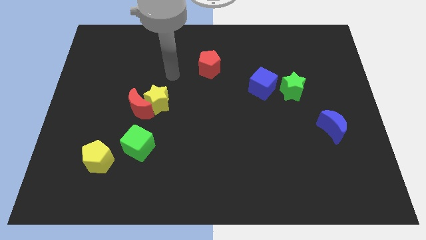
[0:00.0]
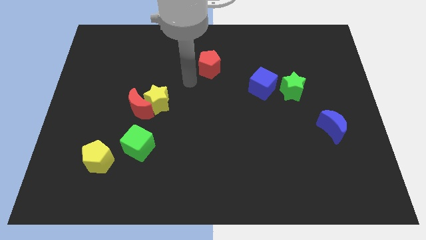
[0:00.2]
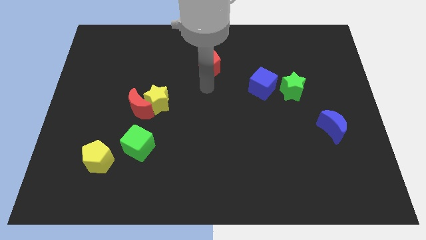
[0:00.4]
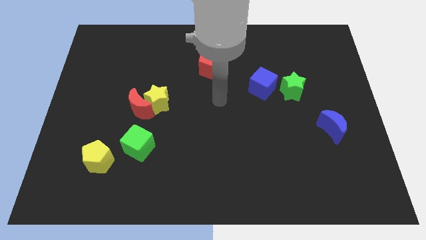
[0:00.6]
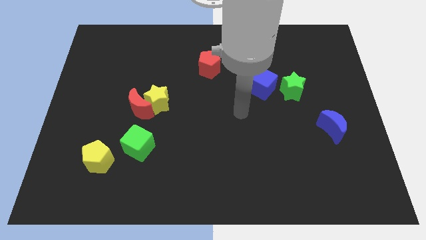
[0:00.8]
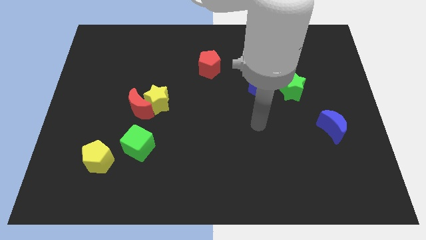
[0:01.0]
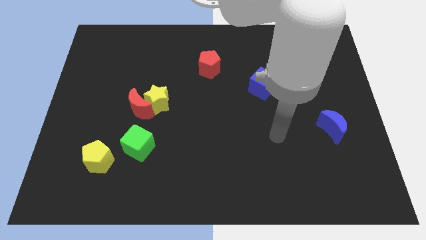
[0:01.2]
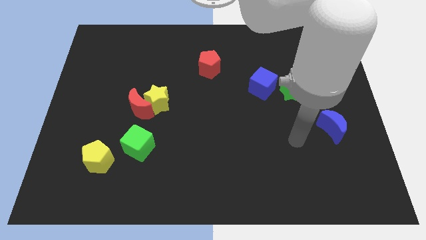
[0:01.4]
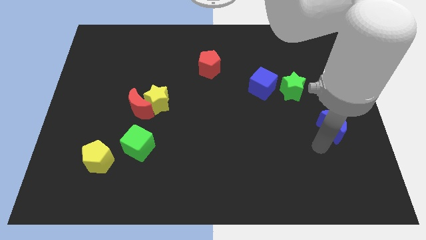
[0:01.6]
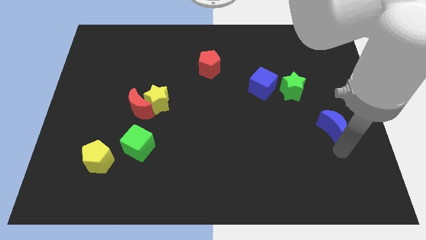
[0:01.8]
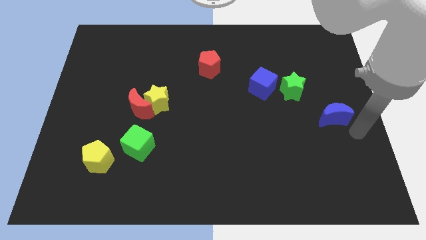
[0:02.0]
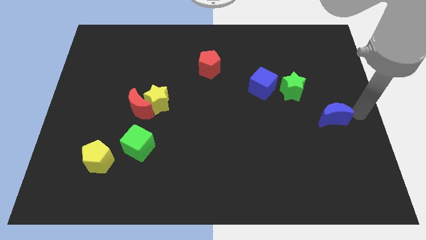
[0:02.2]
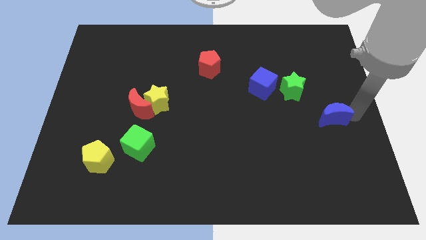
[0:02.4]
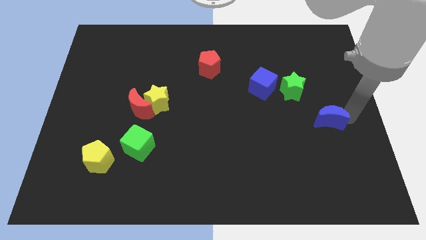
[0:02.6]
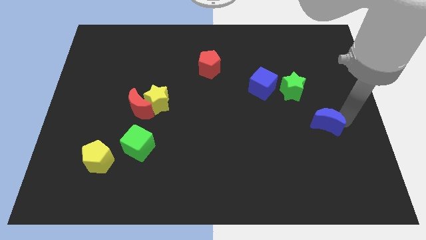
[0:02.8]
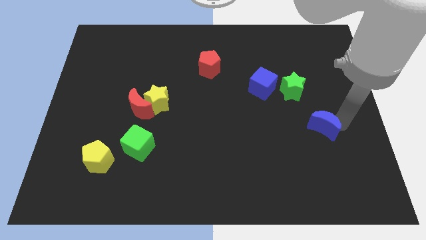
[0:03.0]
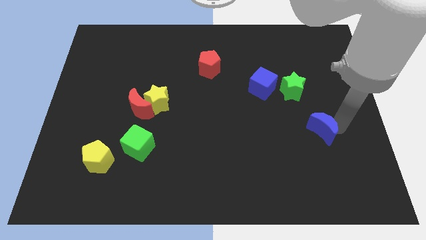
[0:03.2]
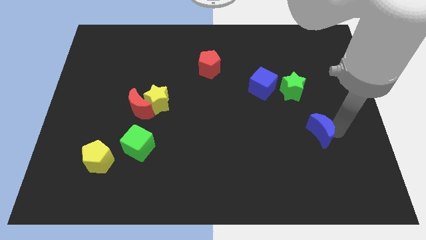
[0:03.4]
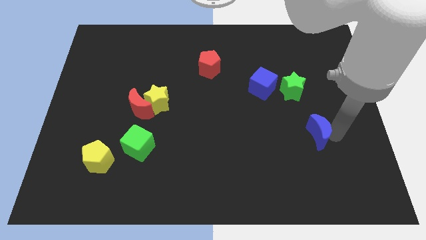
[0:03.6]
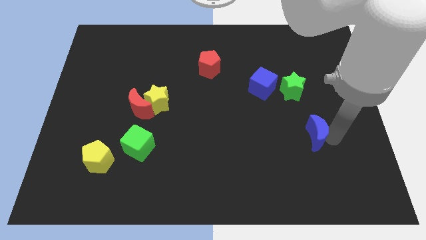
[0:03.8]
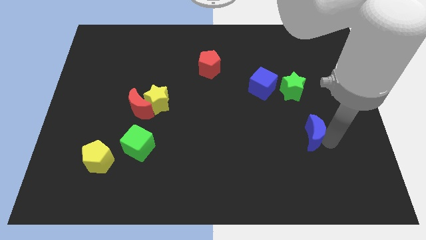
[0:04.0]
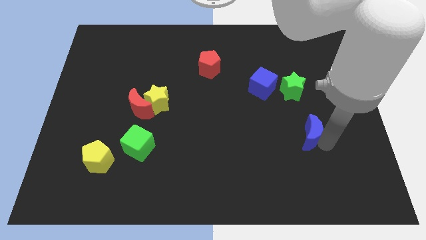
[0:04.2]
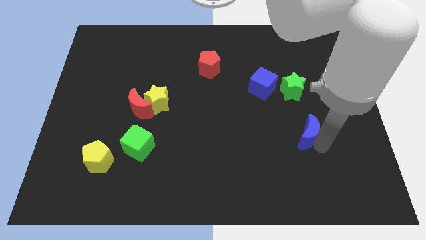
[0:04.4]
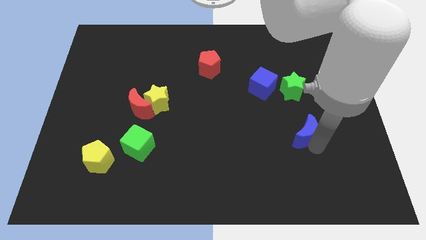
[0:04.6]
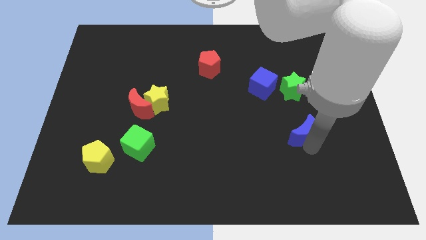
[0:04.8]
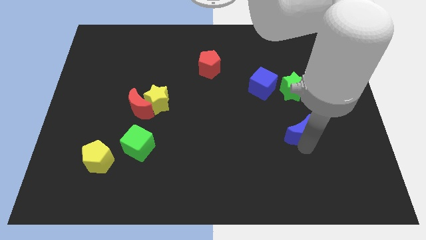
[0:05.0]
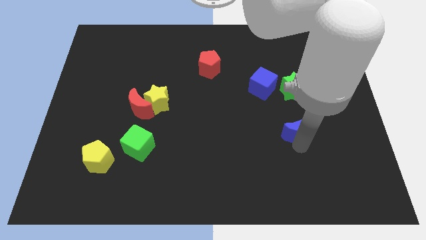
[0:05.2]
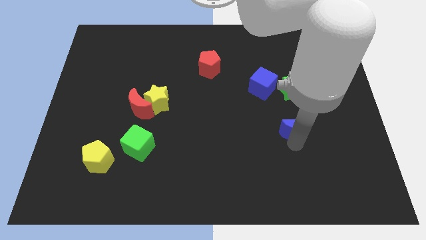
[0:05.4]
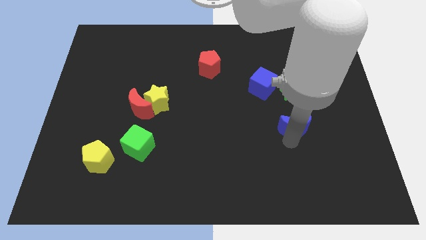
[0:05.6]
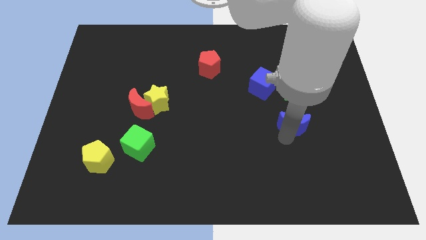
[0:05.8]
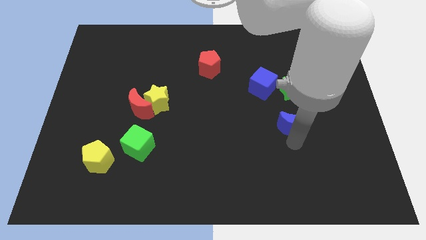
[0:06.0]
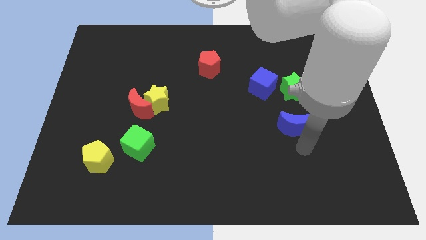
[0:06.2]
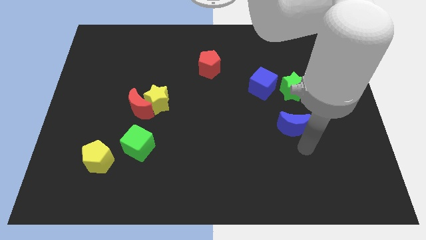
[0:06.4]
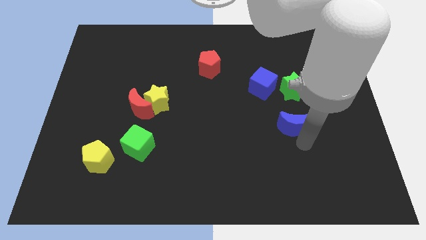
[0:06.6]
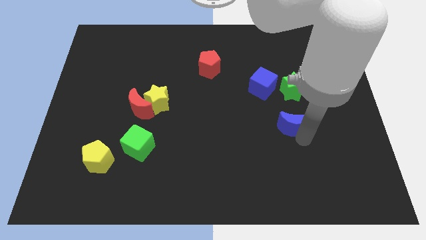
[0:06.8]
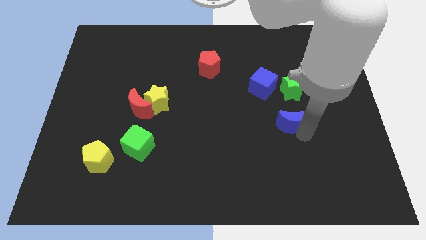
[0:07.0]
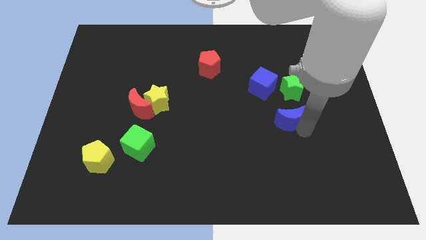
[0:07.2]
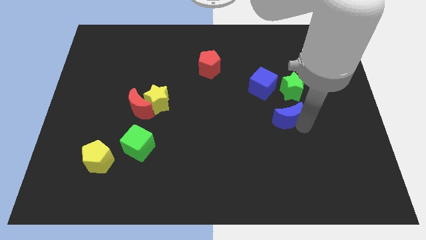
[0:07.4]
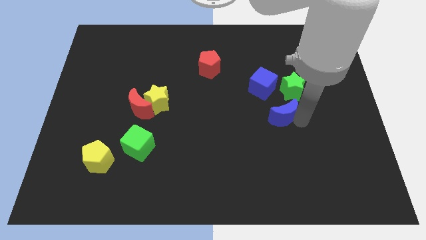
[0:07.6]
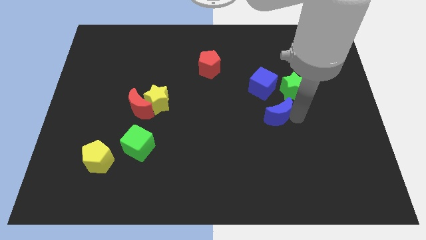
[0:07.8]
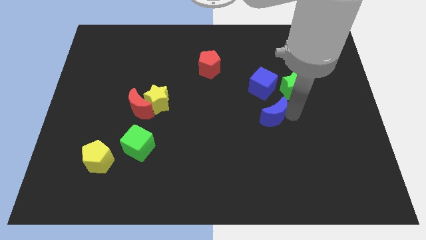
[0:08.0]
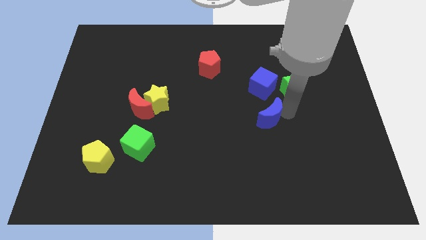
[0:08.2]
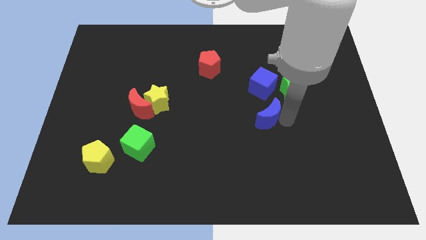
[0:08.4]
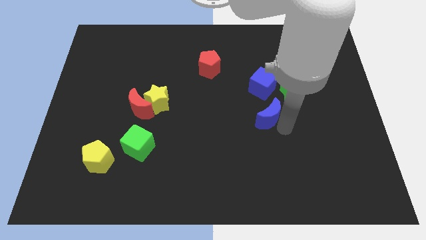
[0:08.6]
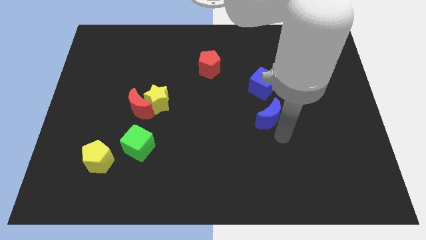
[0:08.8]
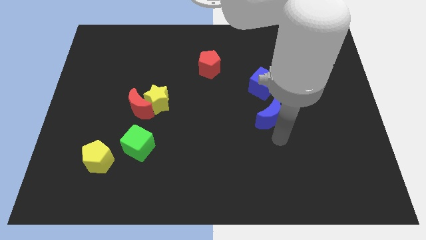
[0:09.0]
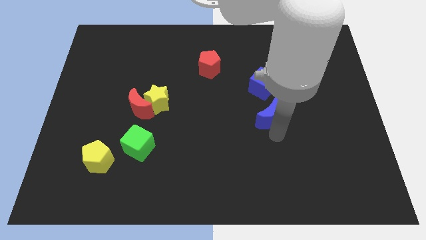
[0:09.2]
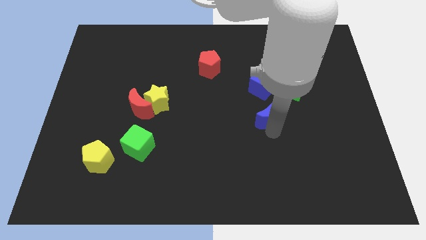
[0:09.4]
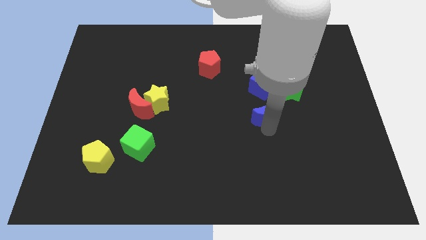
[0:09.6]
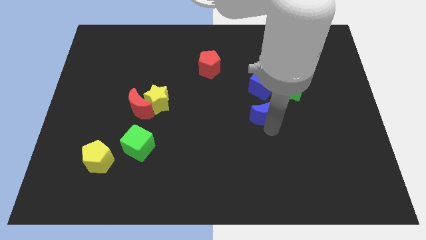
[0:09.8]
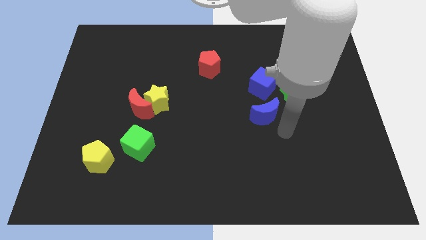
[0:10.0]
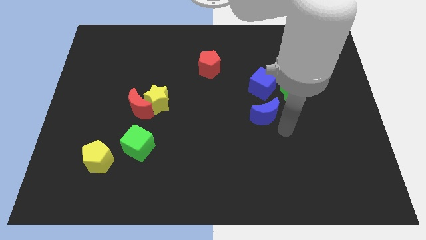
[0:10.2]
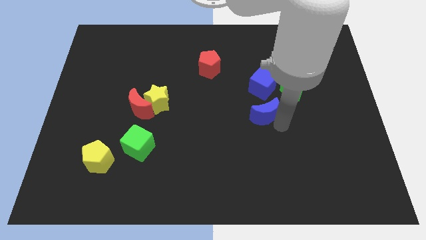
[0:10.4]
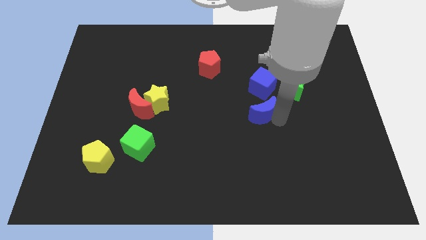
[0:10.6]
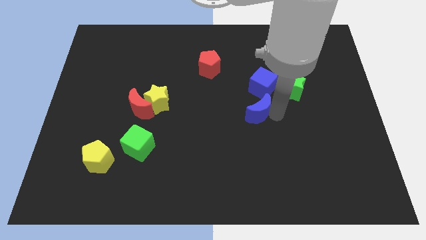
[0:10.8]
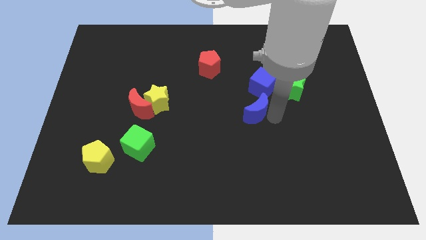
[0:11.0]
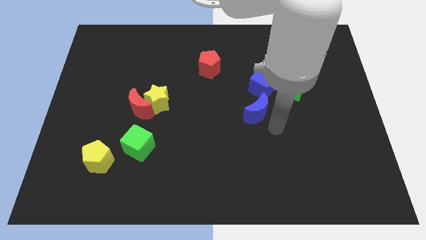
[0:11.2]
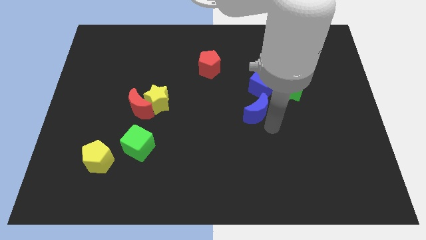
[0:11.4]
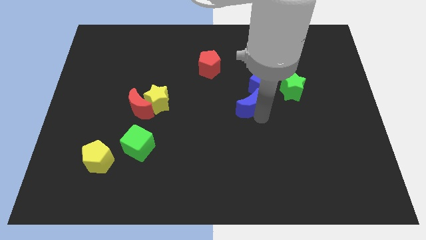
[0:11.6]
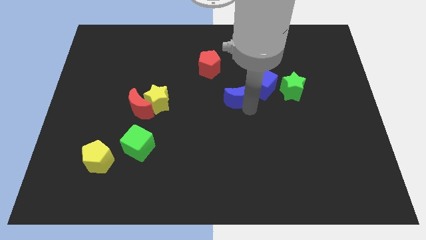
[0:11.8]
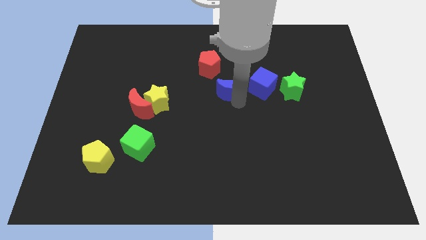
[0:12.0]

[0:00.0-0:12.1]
slide the blue moon diagonally up and to the left

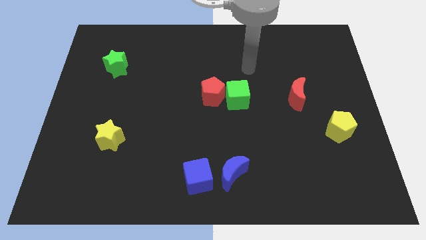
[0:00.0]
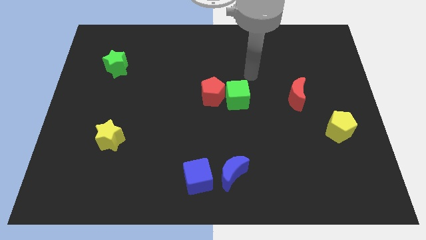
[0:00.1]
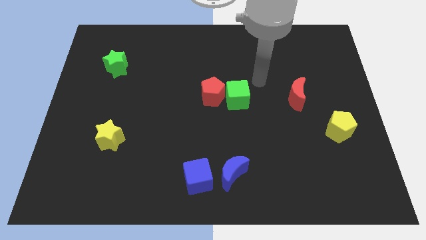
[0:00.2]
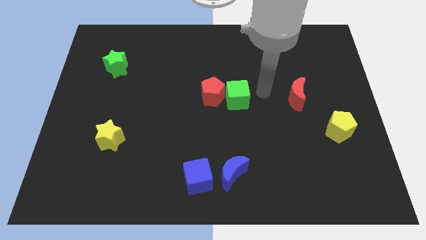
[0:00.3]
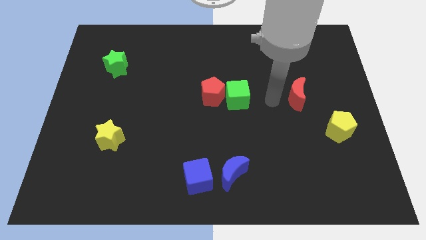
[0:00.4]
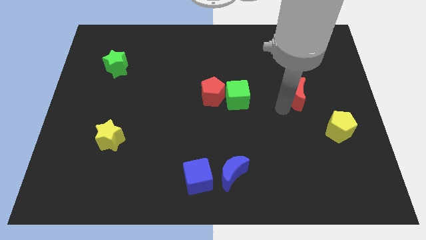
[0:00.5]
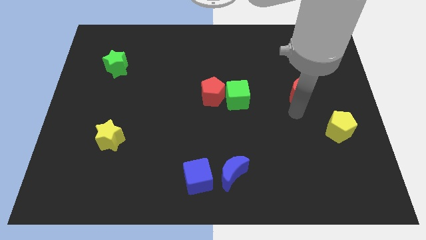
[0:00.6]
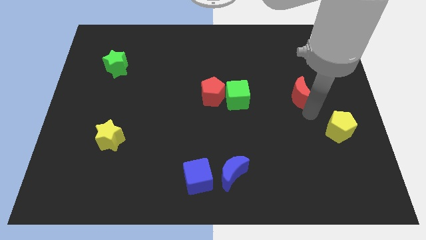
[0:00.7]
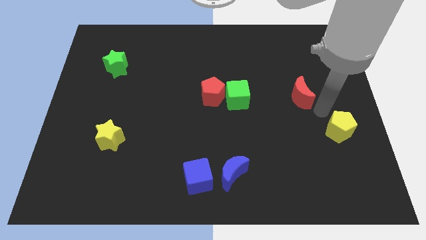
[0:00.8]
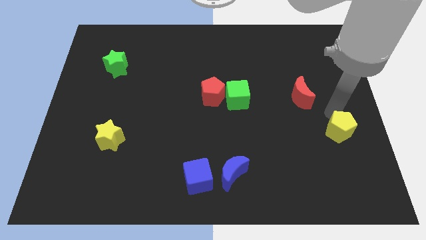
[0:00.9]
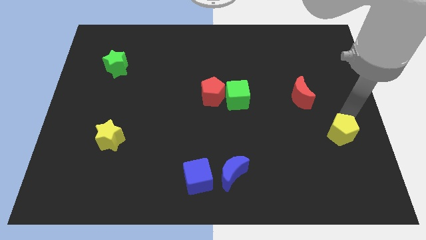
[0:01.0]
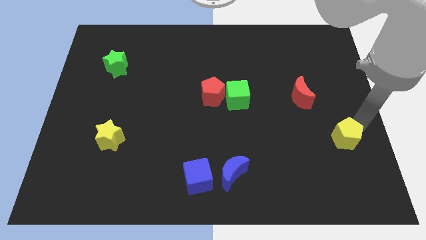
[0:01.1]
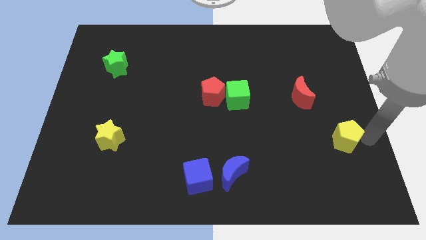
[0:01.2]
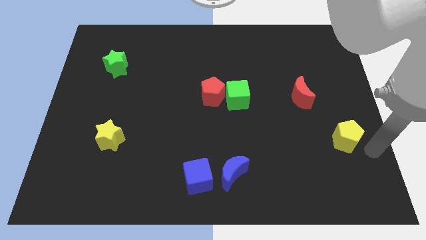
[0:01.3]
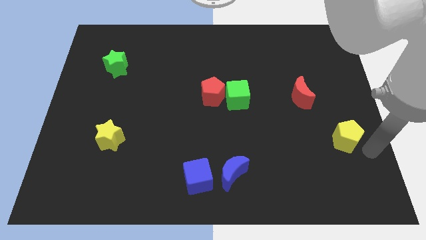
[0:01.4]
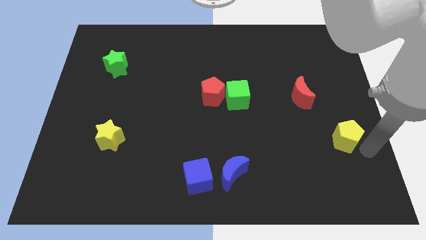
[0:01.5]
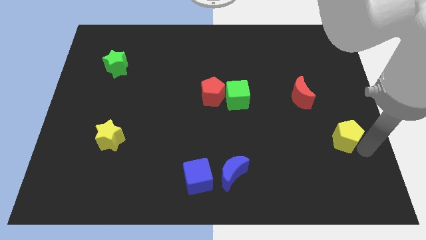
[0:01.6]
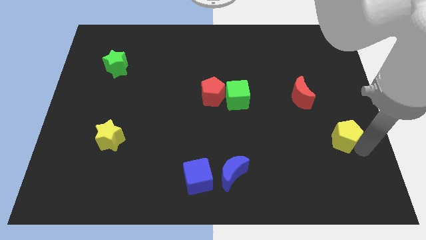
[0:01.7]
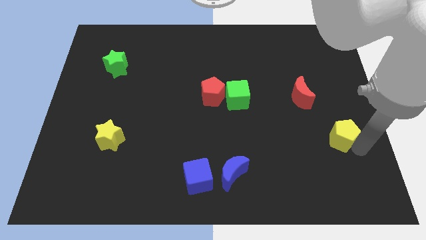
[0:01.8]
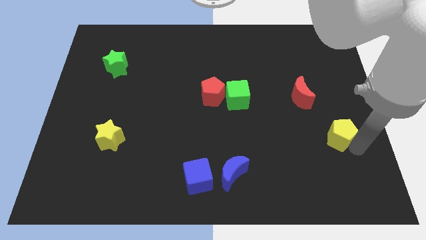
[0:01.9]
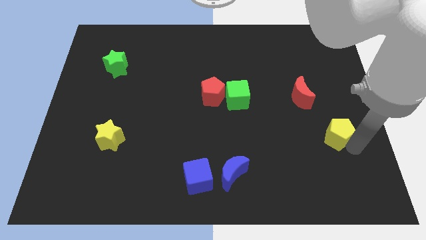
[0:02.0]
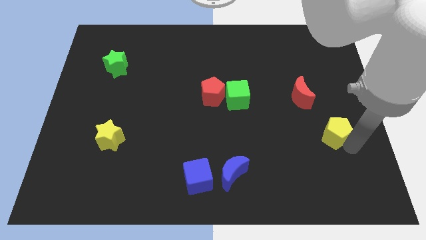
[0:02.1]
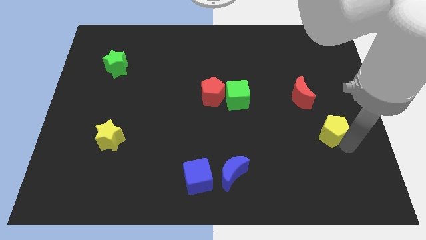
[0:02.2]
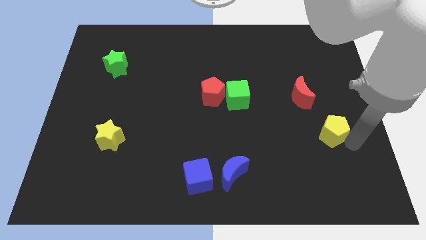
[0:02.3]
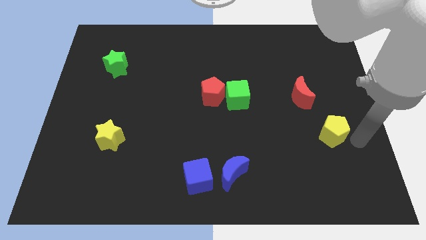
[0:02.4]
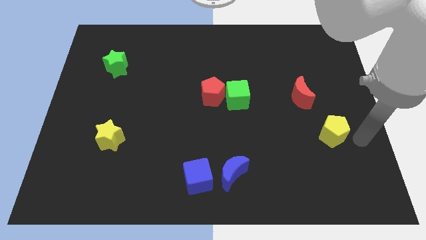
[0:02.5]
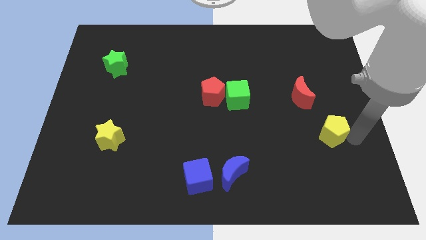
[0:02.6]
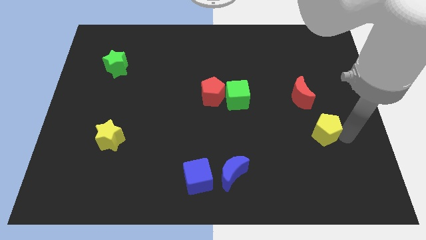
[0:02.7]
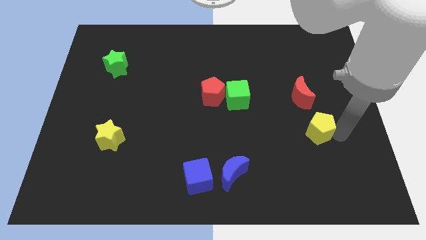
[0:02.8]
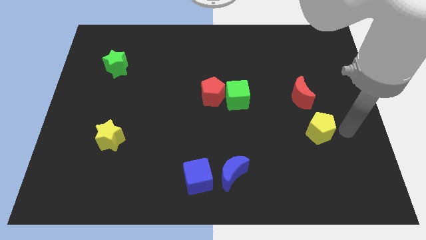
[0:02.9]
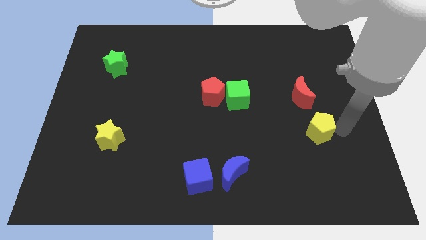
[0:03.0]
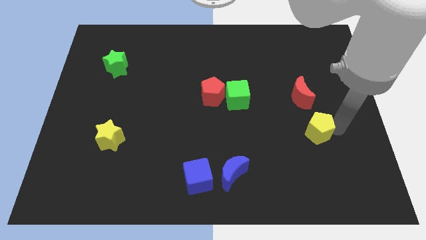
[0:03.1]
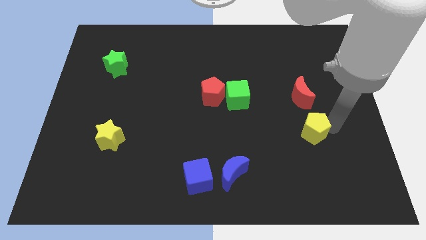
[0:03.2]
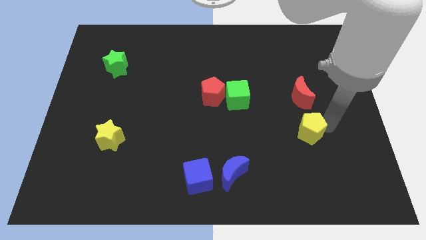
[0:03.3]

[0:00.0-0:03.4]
slightly push the yellow pentagon to the left
